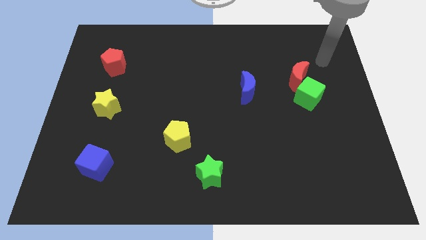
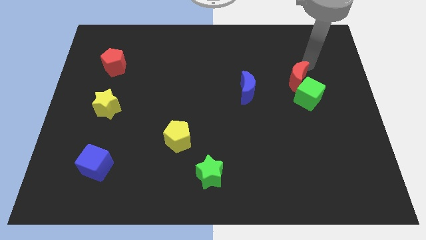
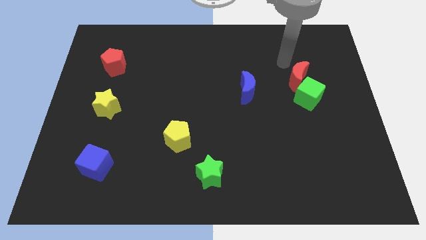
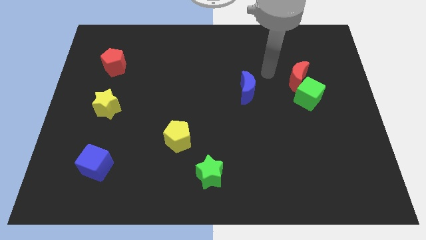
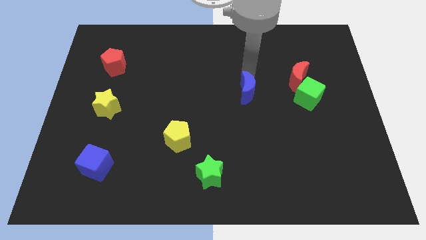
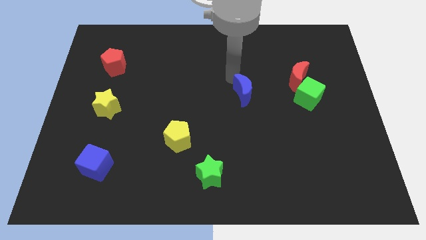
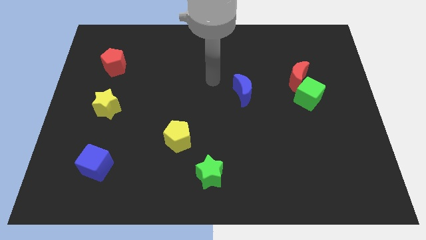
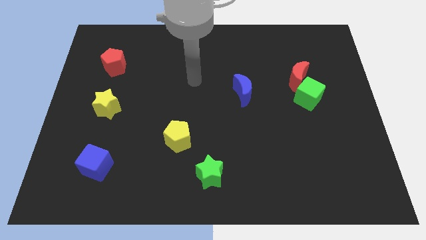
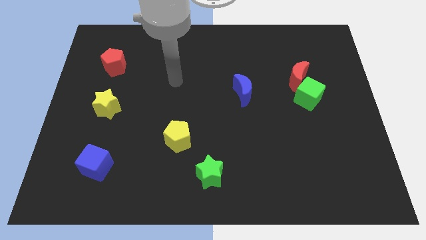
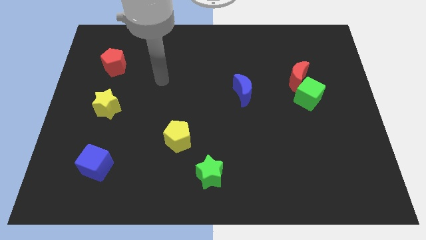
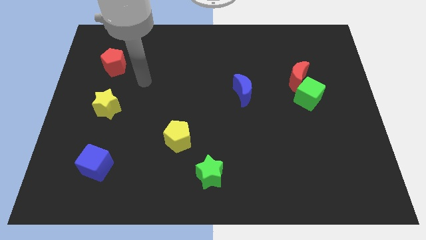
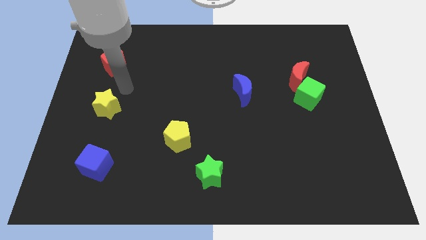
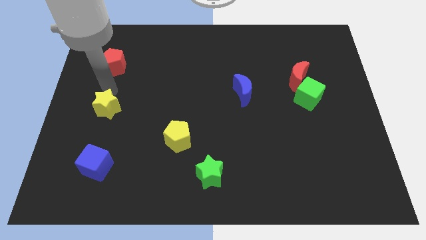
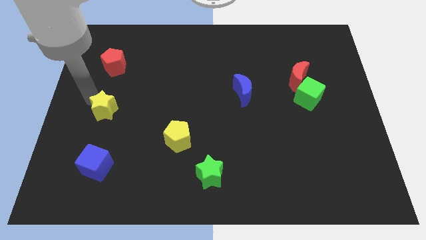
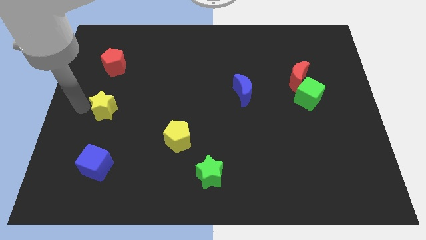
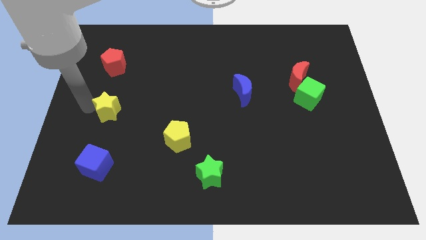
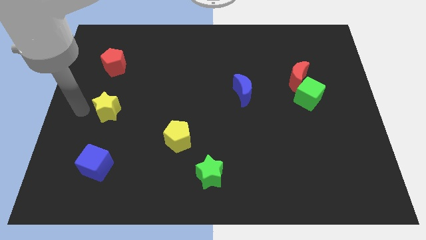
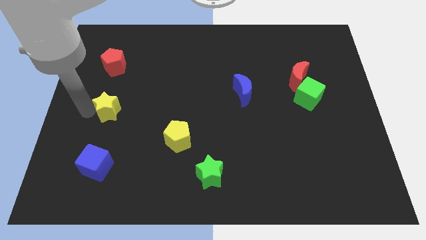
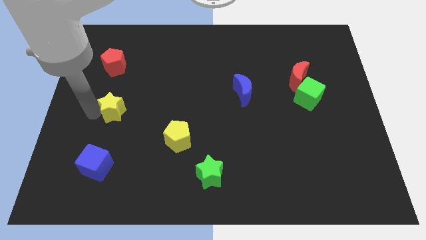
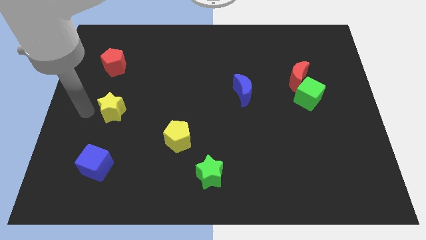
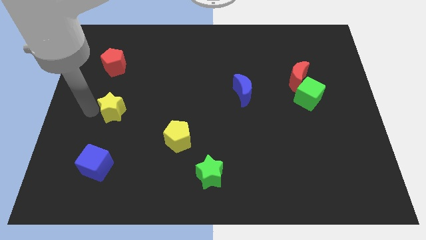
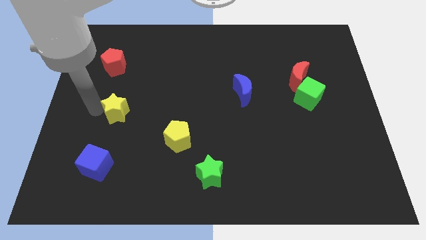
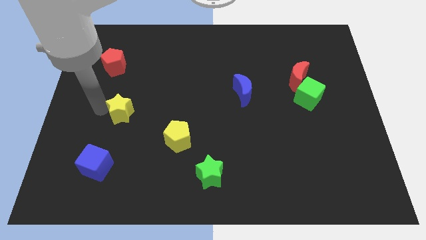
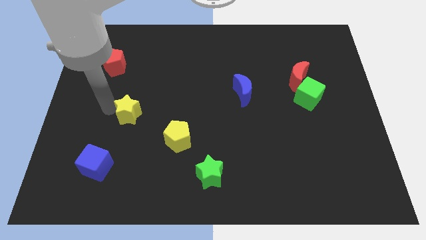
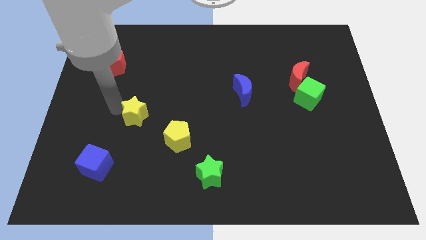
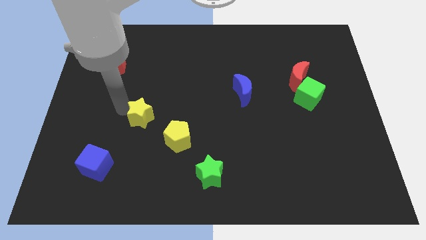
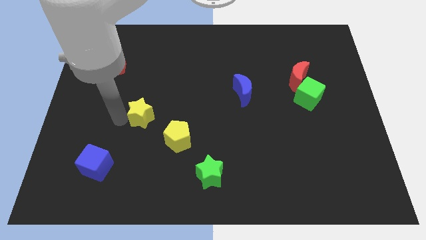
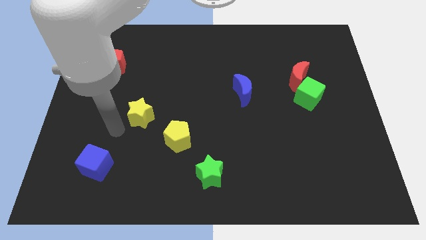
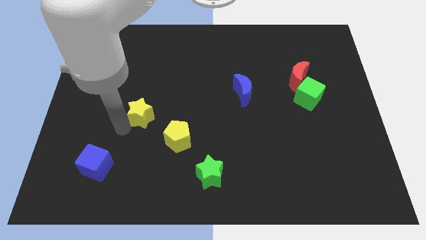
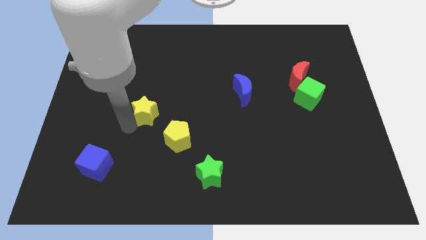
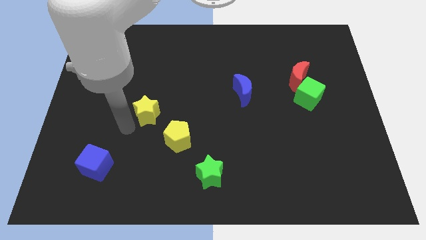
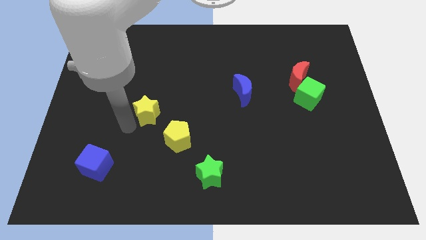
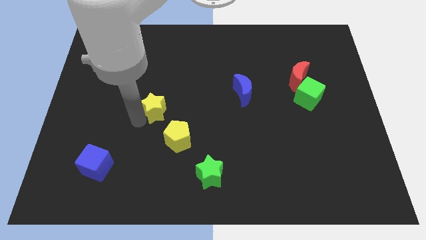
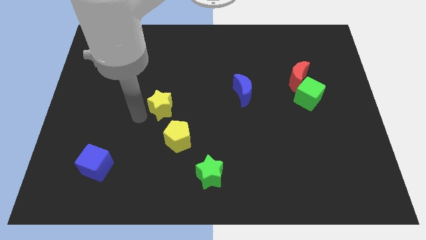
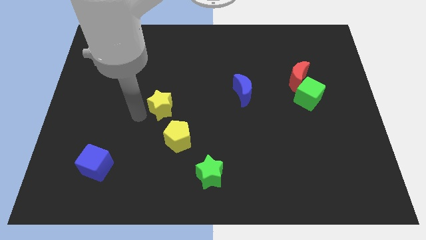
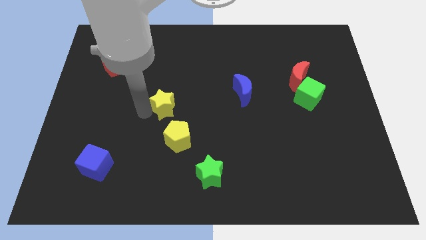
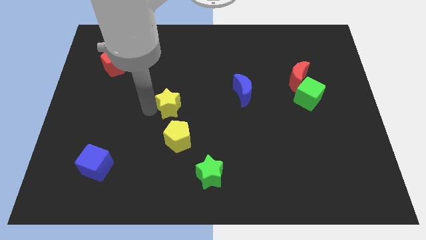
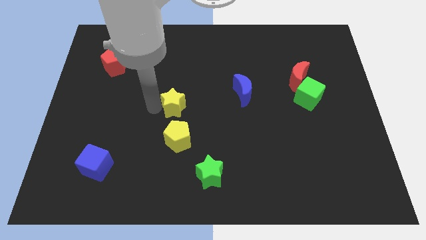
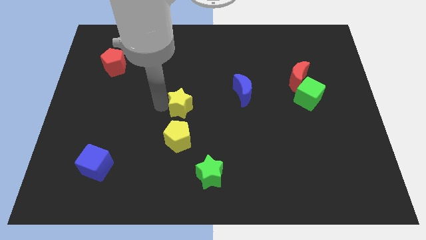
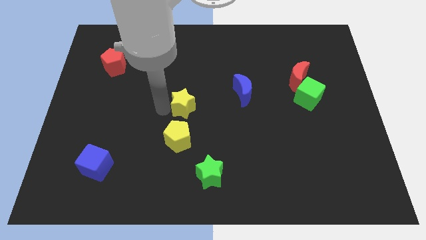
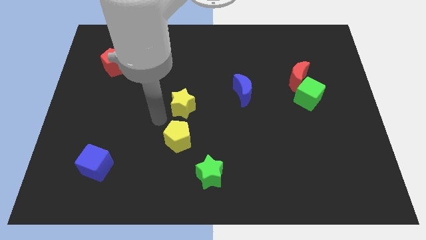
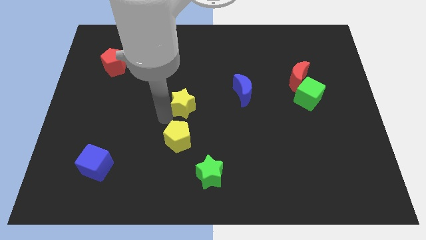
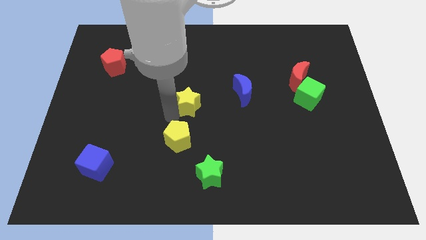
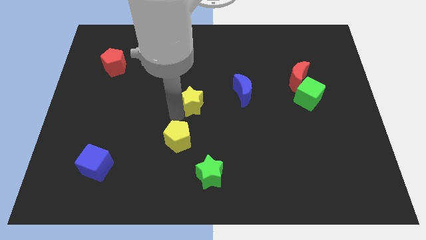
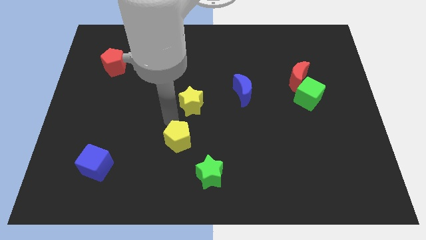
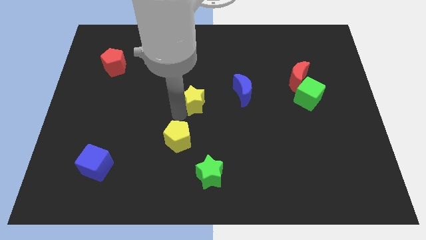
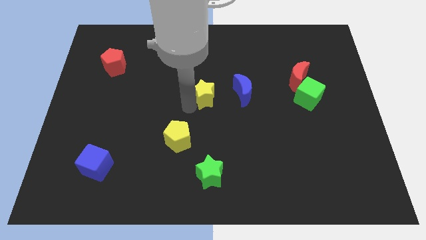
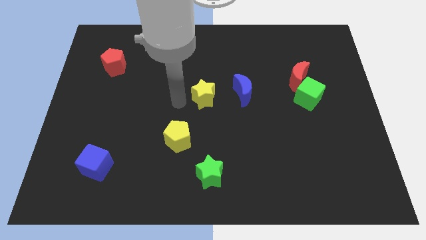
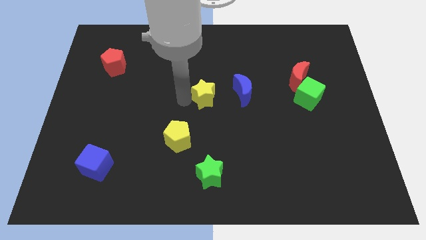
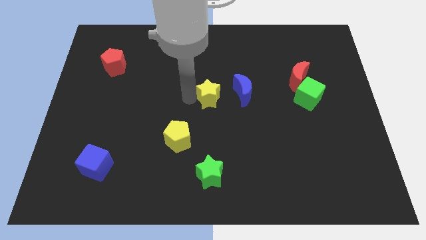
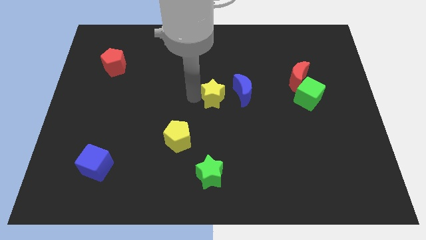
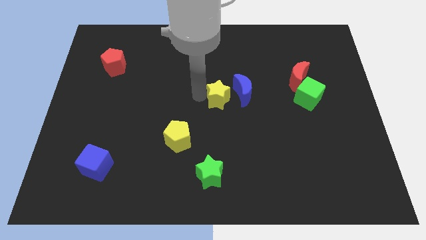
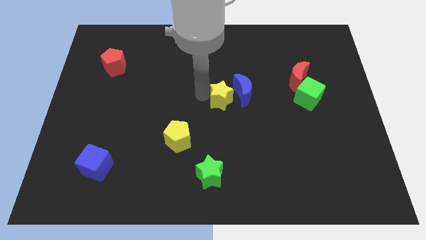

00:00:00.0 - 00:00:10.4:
push the yellow star next to the blue moon

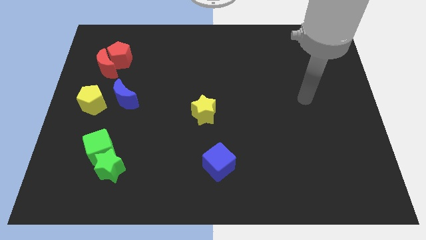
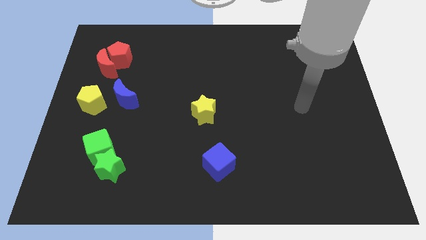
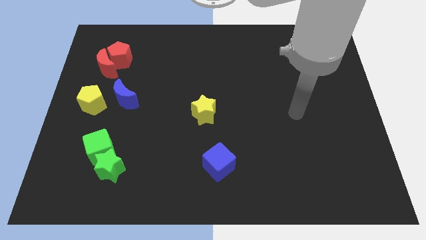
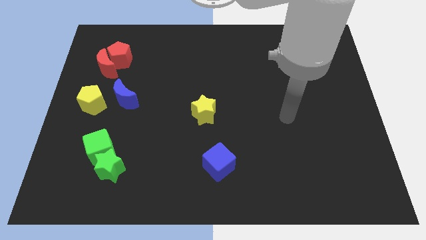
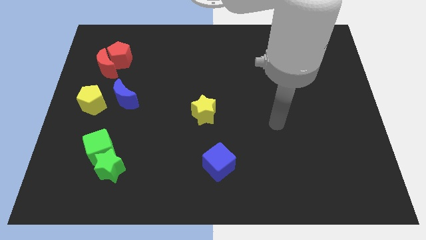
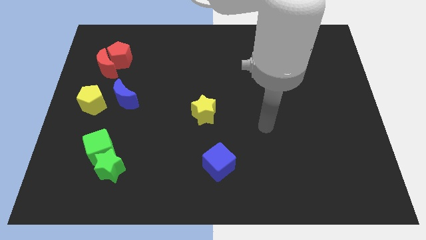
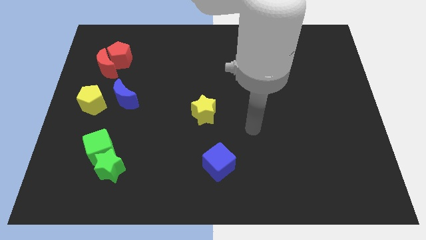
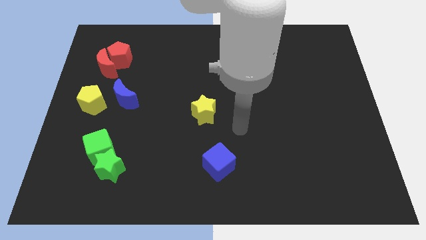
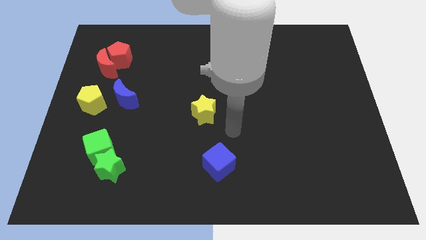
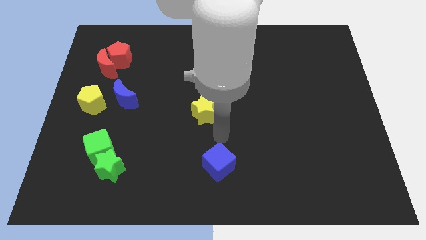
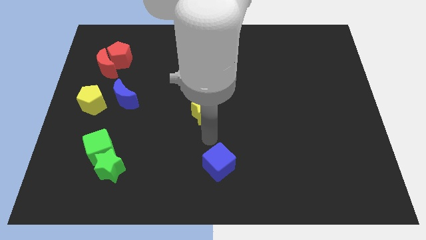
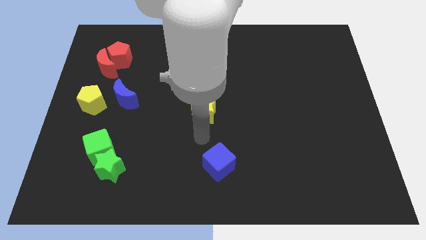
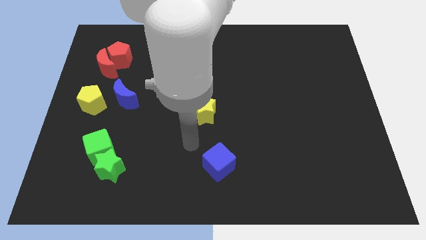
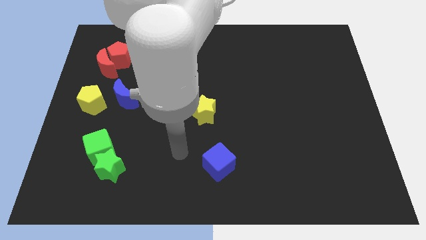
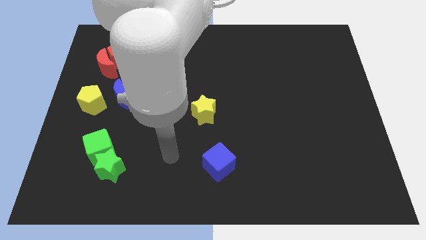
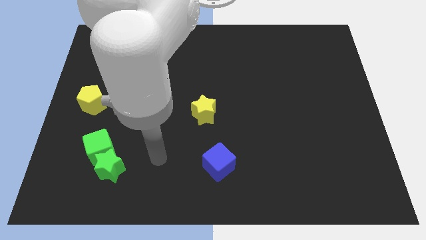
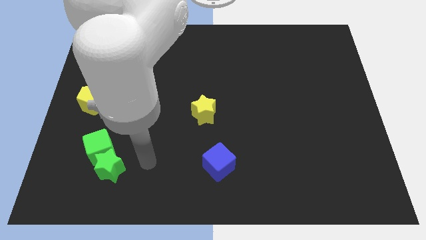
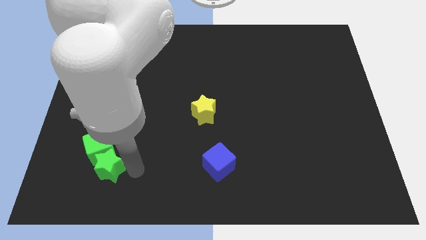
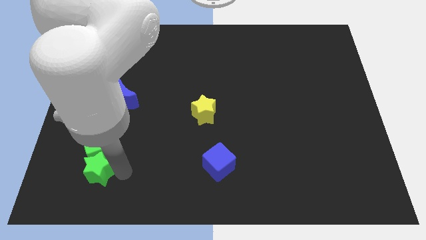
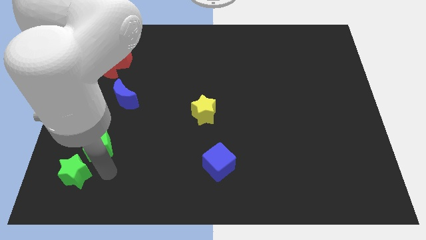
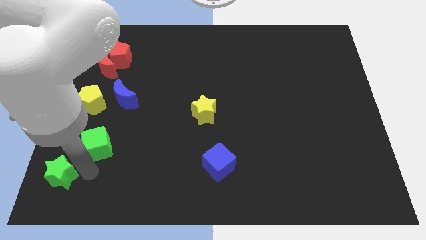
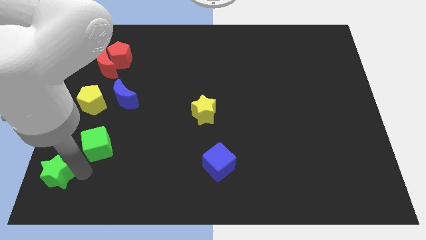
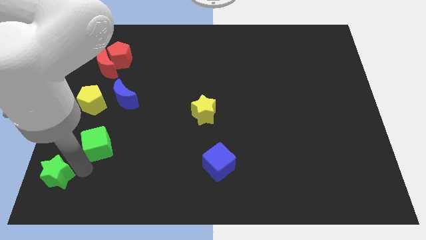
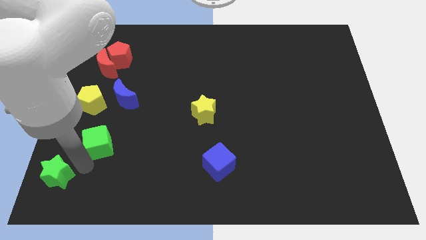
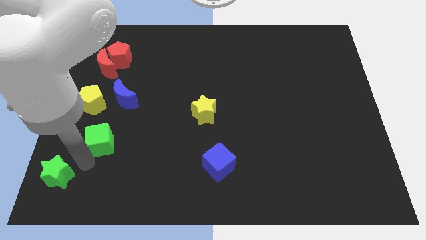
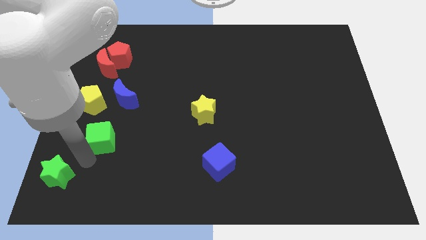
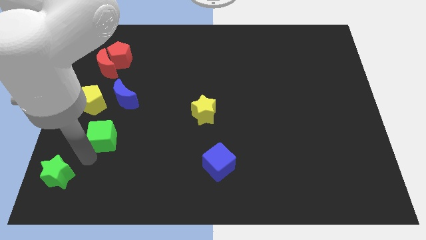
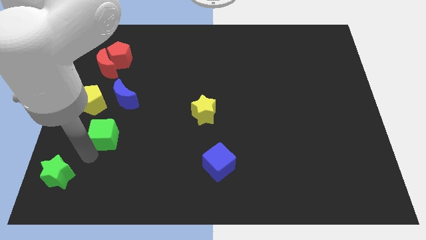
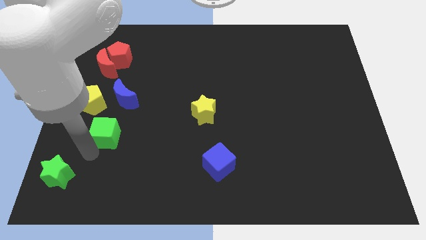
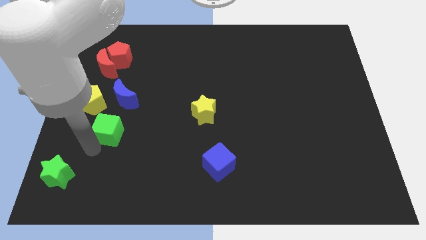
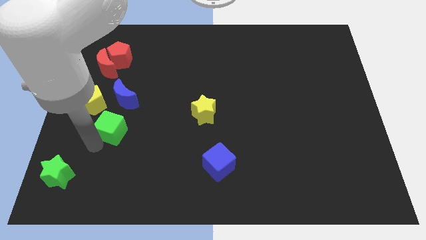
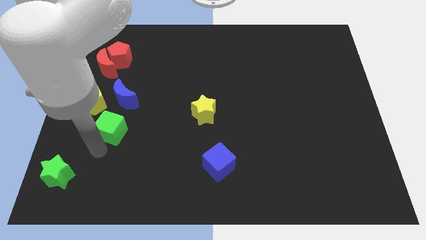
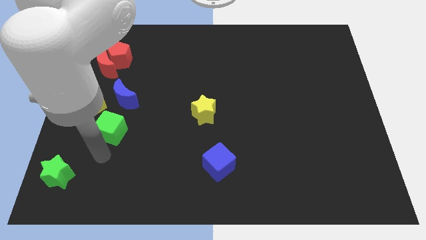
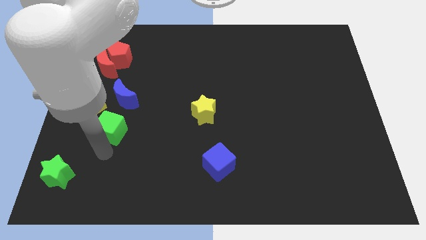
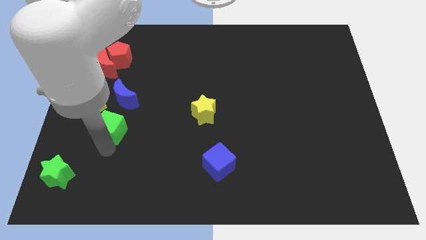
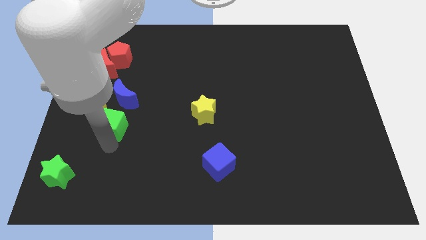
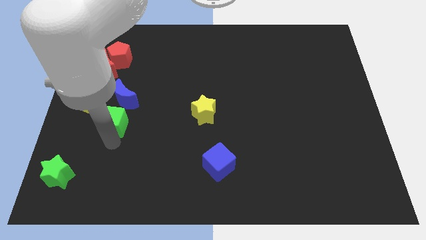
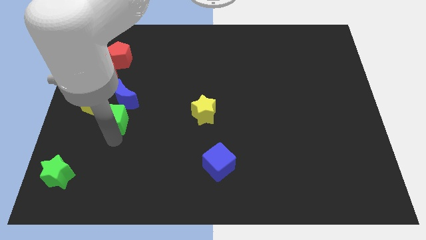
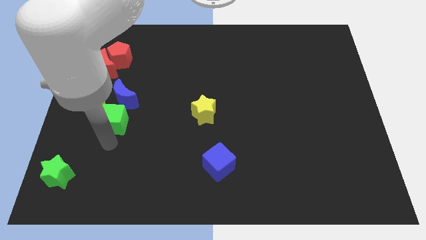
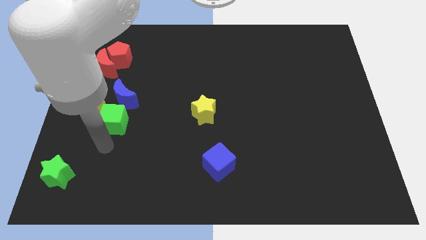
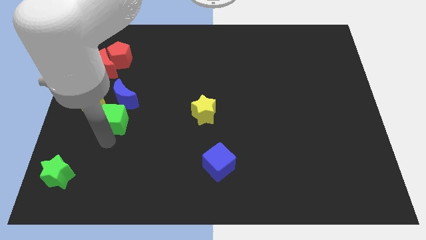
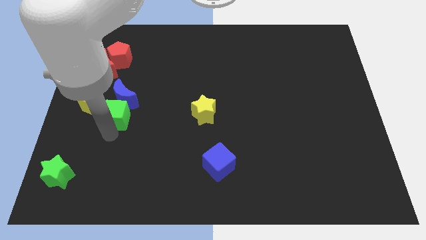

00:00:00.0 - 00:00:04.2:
push the green cube next to the blue moon
